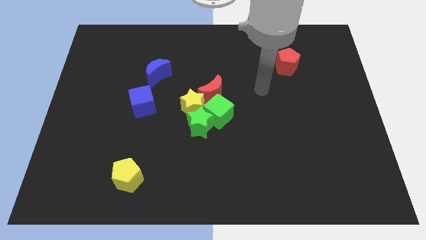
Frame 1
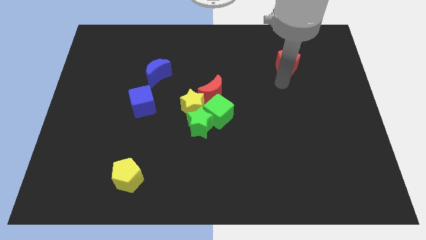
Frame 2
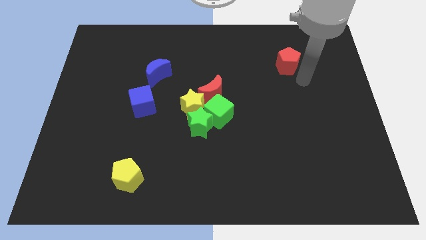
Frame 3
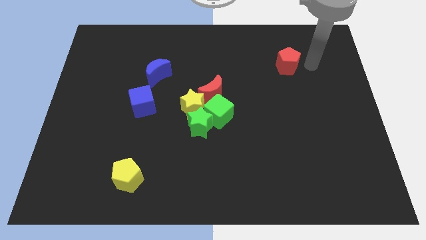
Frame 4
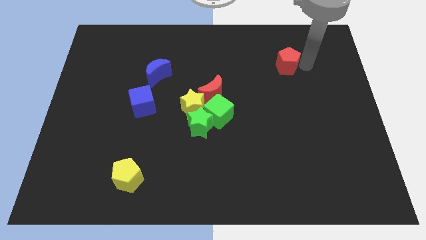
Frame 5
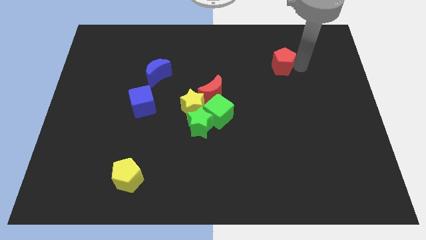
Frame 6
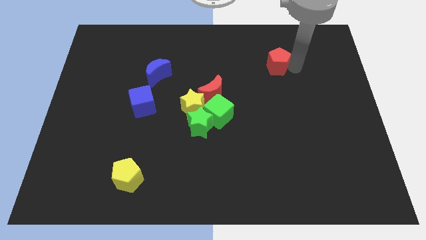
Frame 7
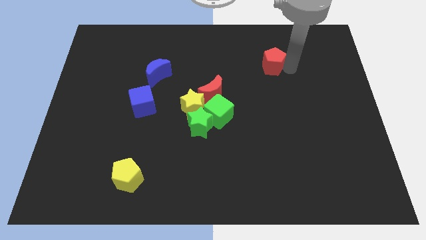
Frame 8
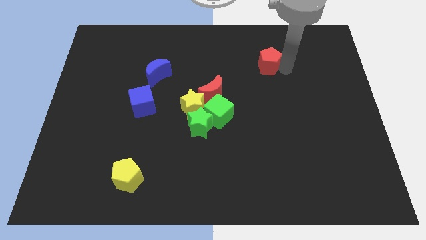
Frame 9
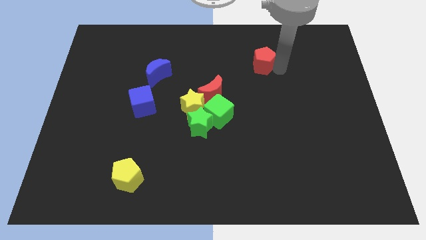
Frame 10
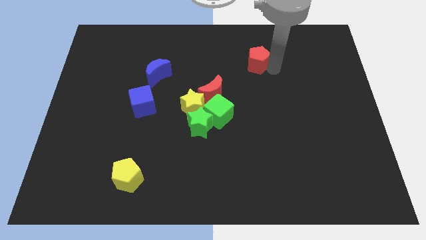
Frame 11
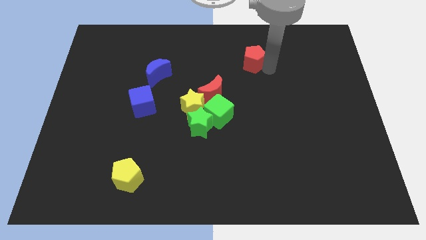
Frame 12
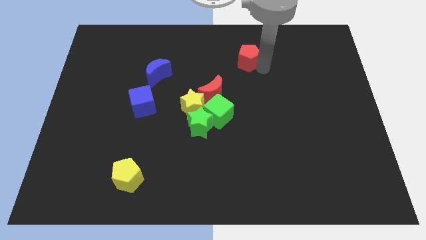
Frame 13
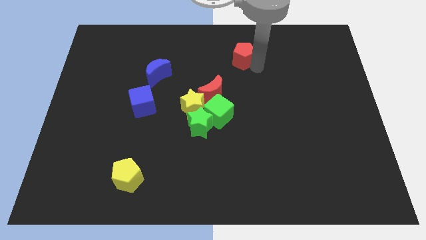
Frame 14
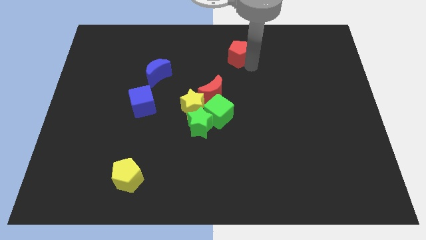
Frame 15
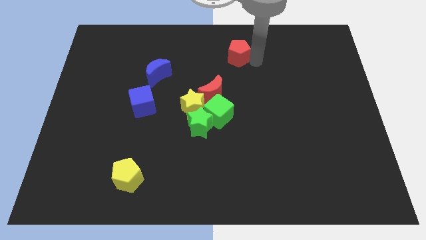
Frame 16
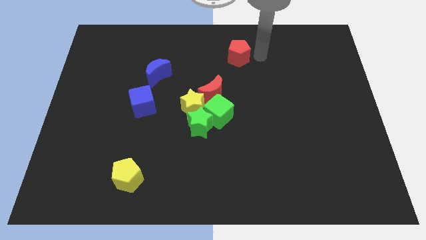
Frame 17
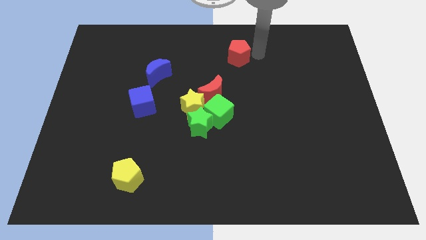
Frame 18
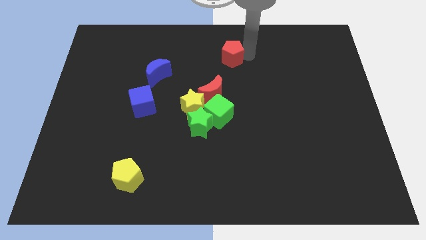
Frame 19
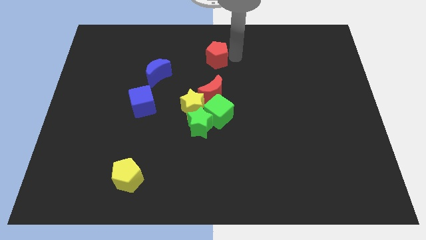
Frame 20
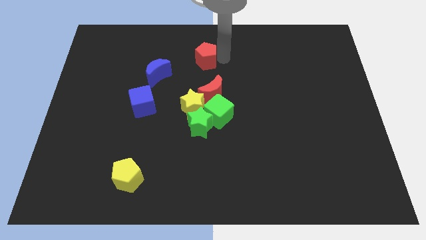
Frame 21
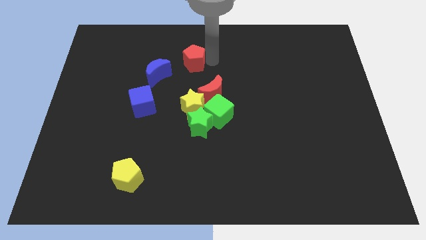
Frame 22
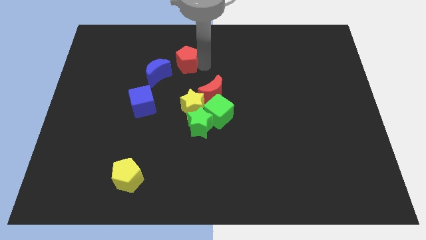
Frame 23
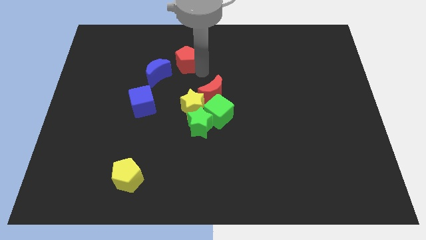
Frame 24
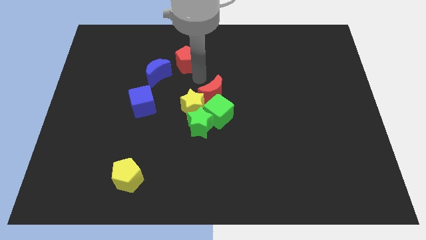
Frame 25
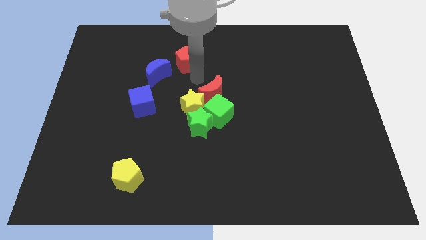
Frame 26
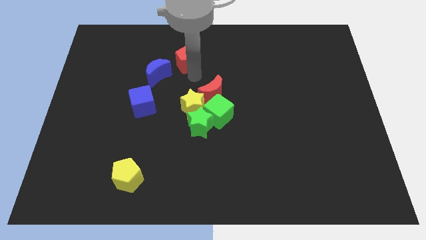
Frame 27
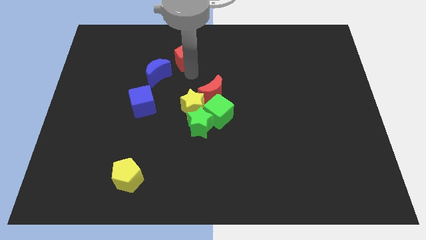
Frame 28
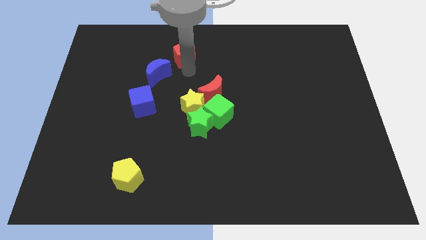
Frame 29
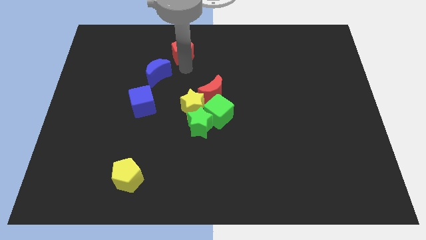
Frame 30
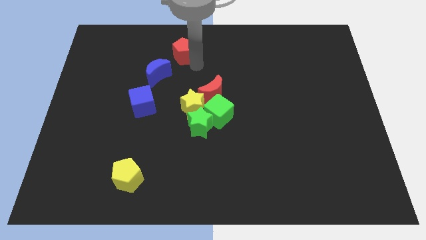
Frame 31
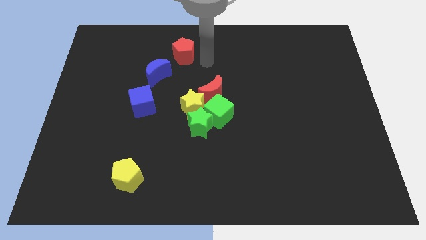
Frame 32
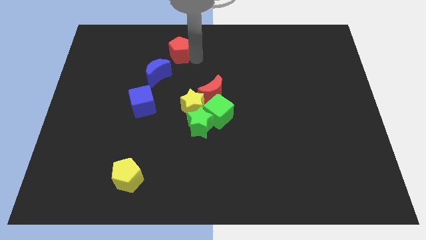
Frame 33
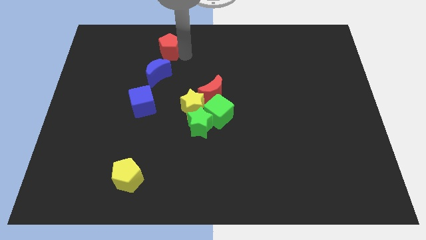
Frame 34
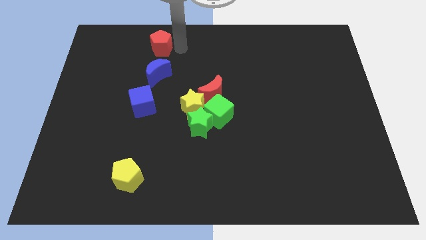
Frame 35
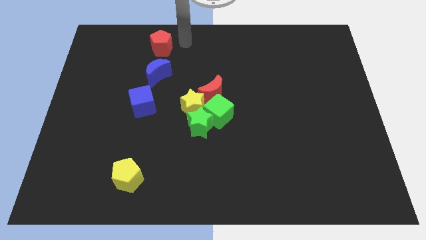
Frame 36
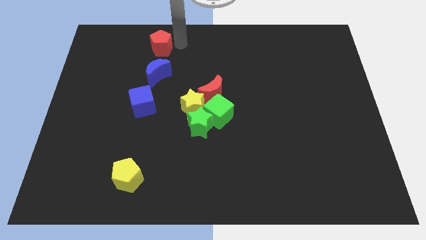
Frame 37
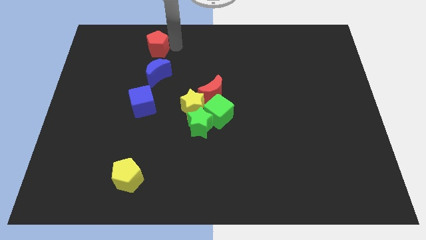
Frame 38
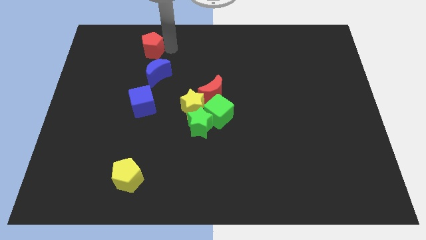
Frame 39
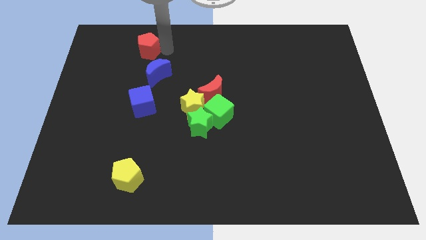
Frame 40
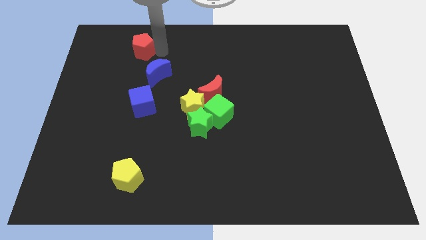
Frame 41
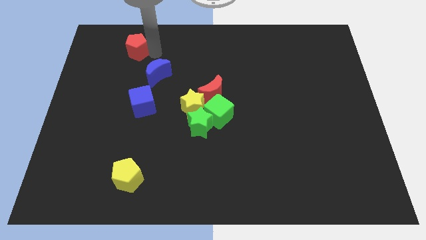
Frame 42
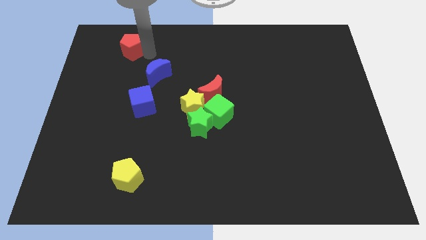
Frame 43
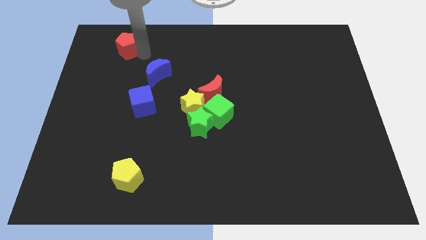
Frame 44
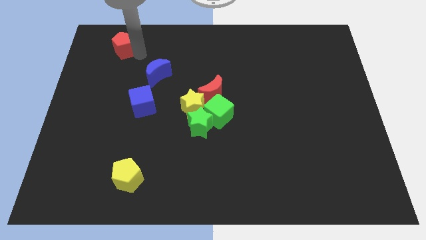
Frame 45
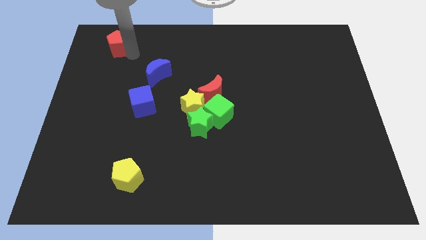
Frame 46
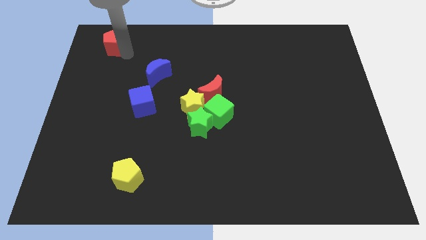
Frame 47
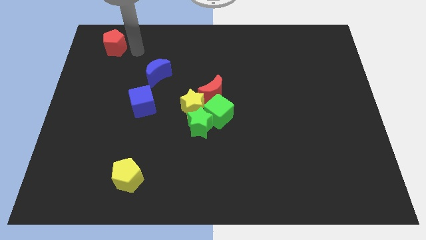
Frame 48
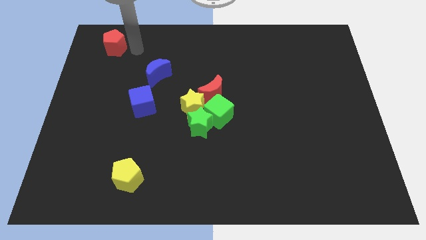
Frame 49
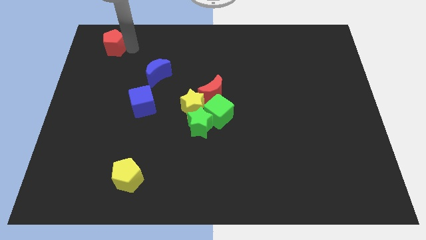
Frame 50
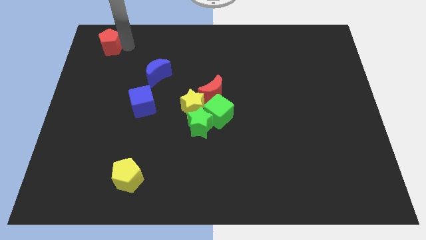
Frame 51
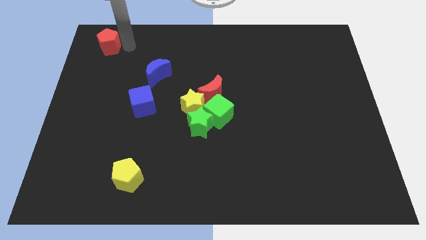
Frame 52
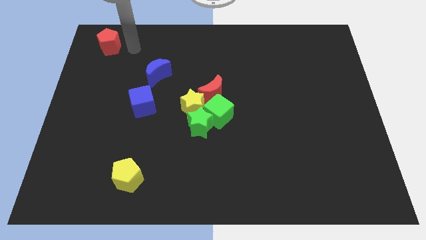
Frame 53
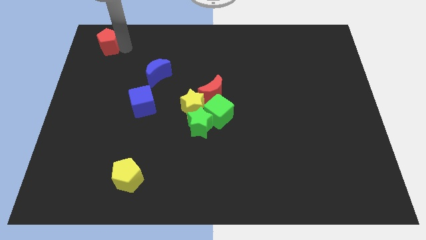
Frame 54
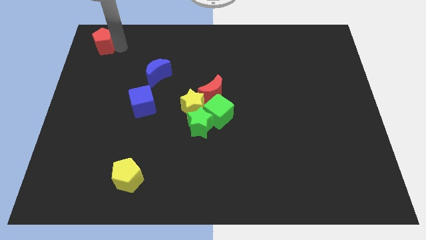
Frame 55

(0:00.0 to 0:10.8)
move the red pentagon to the top left of the board

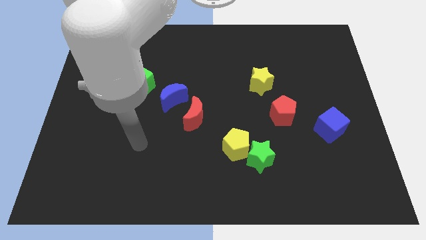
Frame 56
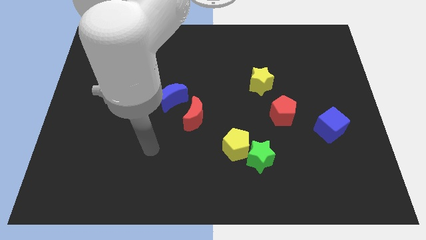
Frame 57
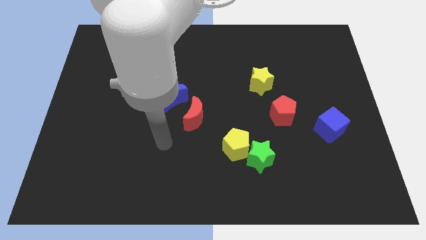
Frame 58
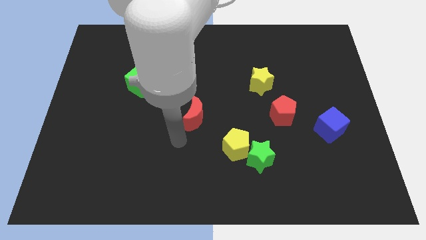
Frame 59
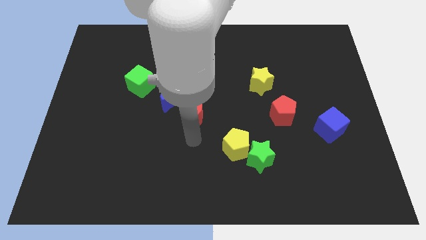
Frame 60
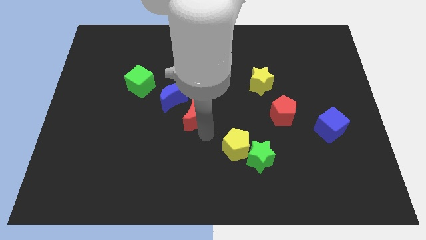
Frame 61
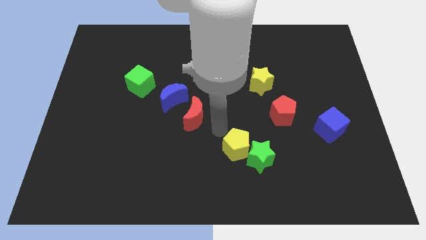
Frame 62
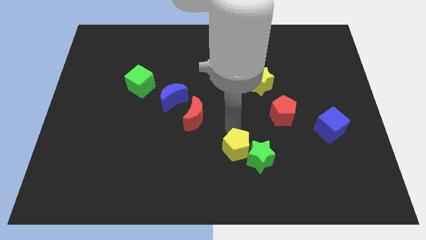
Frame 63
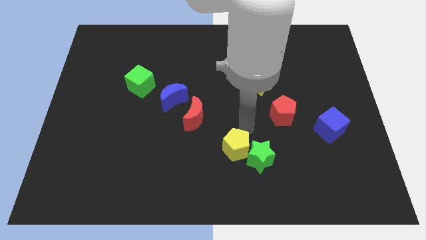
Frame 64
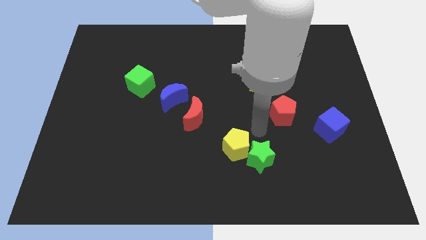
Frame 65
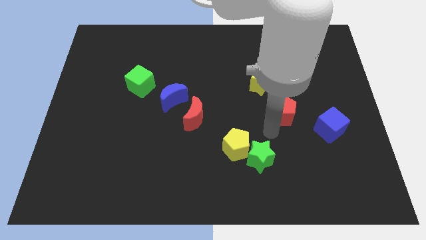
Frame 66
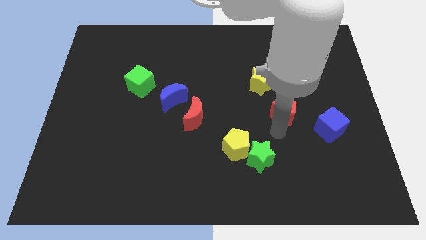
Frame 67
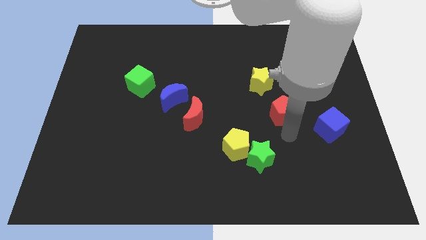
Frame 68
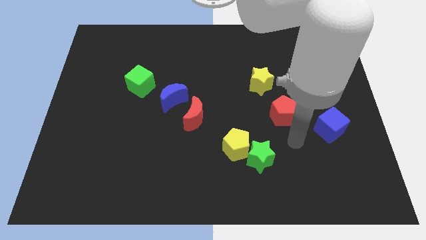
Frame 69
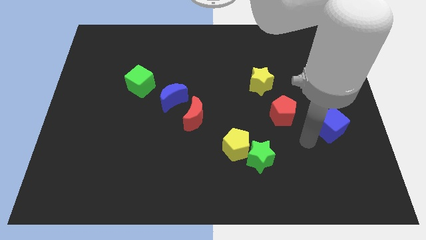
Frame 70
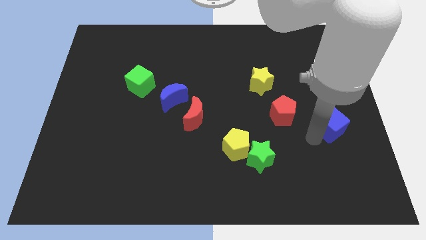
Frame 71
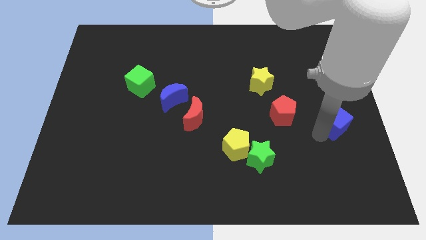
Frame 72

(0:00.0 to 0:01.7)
slide the blue cube to the right side of the board
